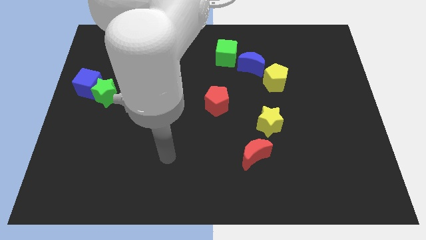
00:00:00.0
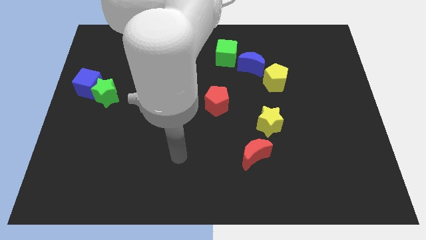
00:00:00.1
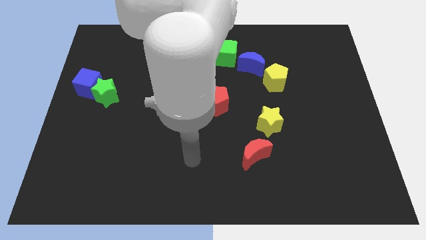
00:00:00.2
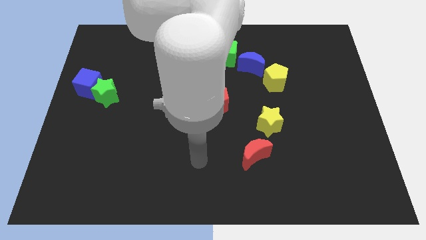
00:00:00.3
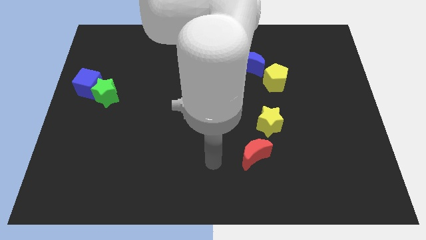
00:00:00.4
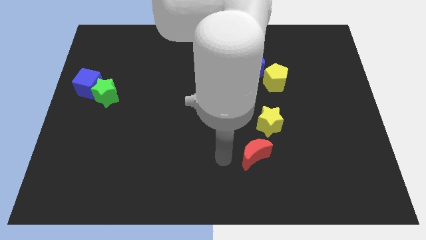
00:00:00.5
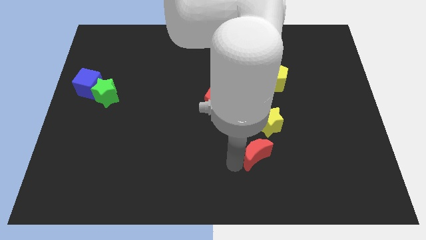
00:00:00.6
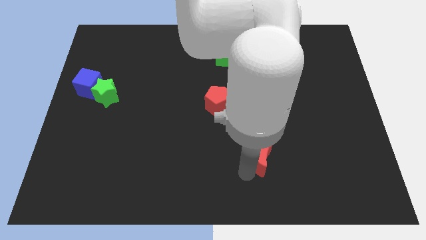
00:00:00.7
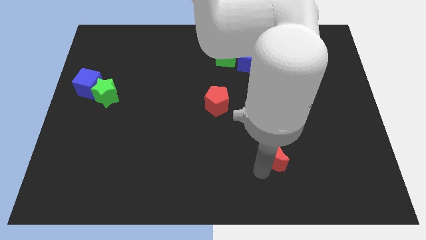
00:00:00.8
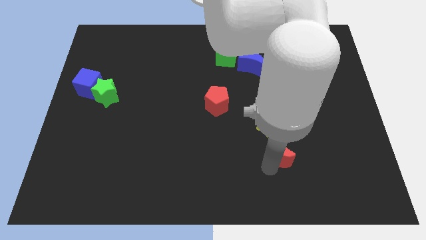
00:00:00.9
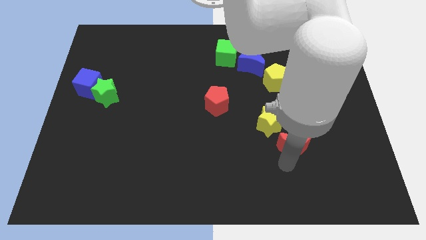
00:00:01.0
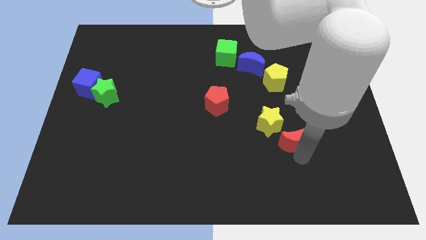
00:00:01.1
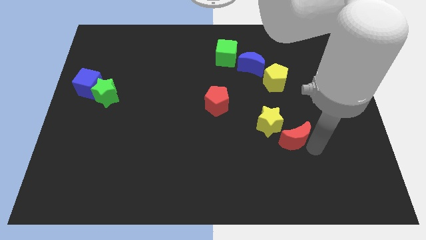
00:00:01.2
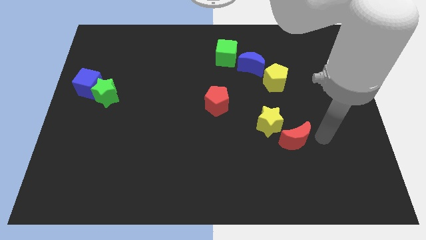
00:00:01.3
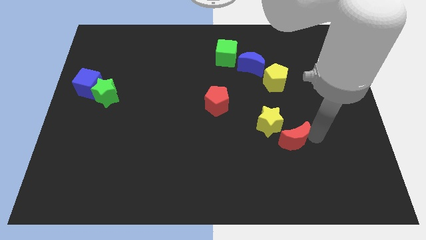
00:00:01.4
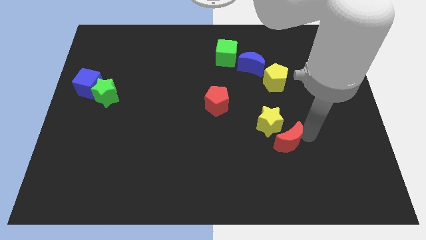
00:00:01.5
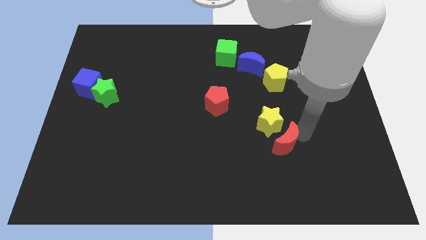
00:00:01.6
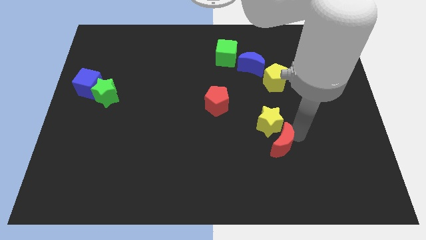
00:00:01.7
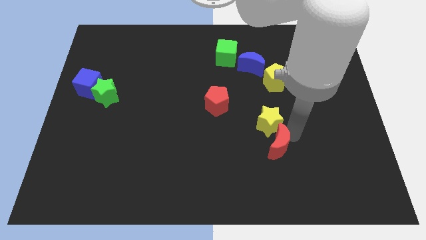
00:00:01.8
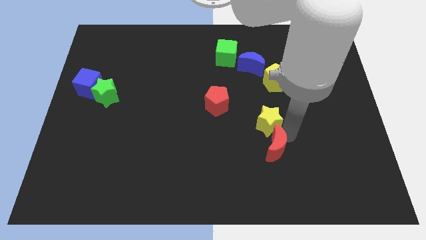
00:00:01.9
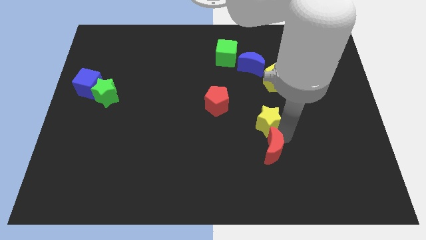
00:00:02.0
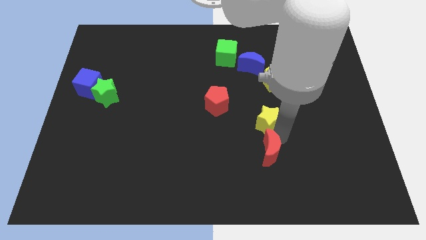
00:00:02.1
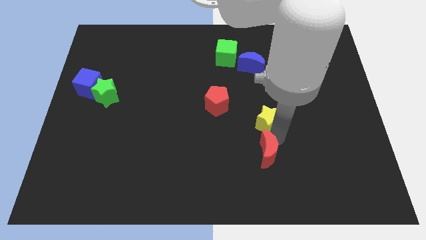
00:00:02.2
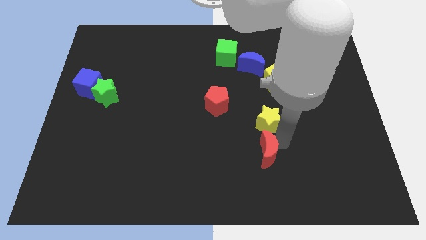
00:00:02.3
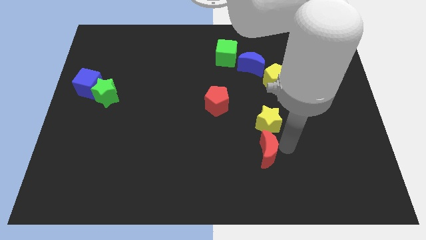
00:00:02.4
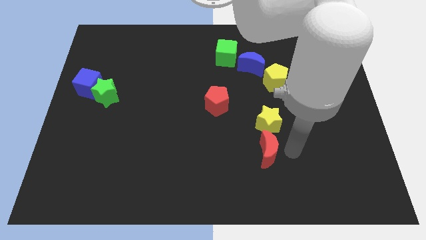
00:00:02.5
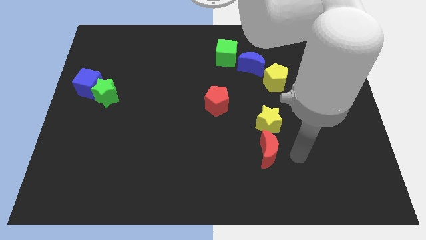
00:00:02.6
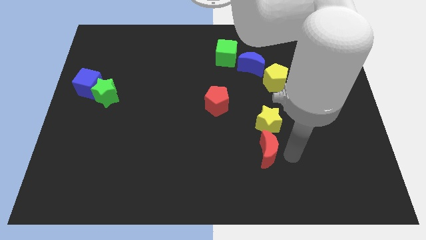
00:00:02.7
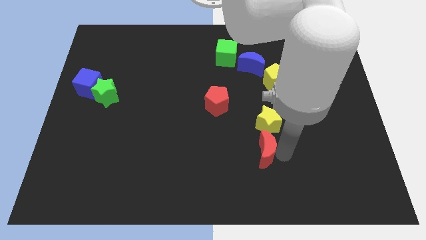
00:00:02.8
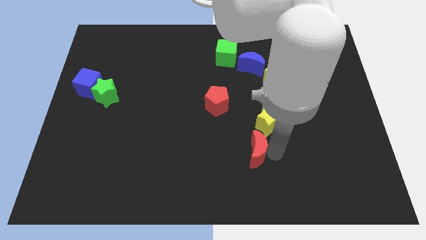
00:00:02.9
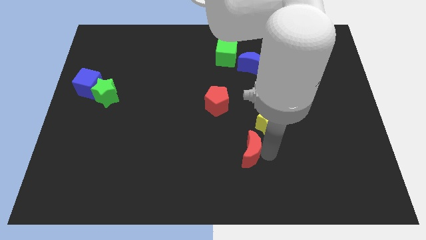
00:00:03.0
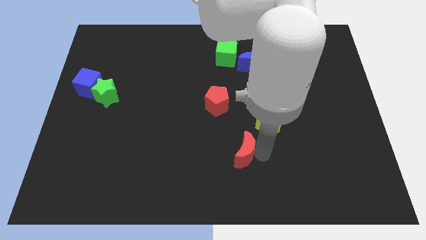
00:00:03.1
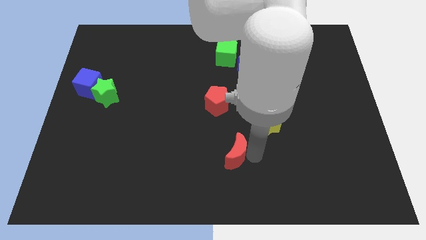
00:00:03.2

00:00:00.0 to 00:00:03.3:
put the red moon to the bottom of the red pentagon

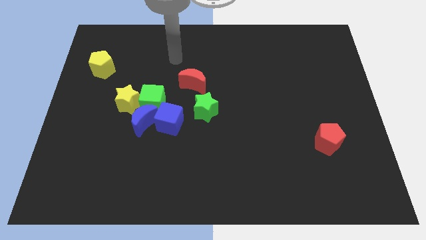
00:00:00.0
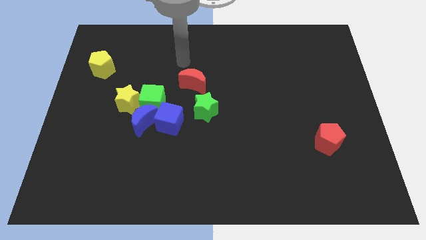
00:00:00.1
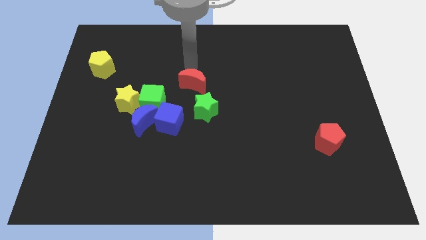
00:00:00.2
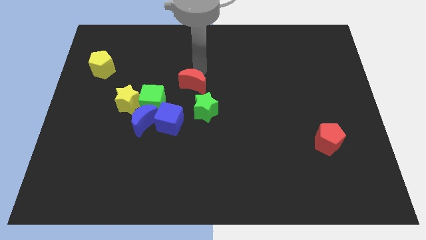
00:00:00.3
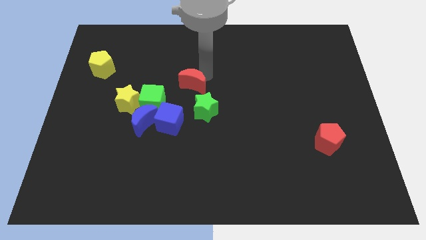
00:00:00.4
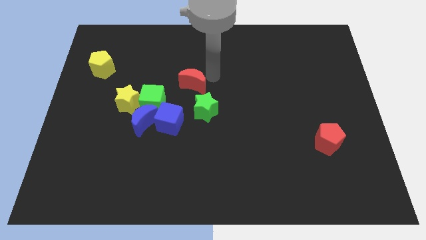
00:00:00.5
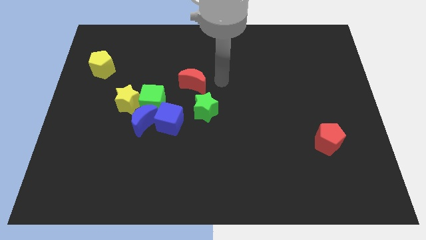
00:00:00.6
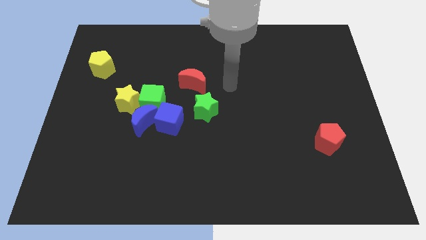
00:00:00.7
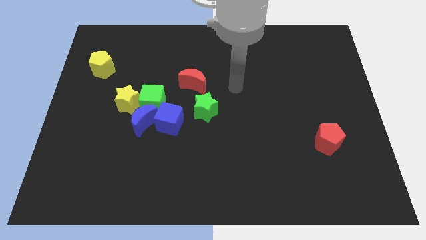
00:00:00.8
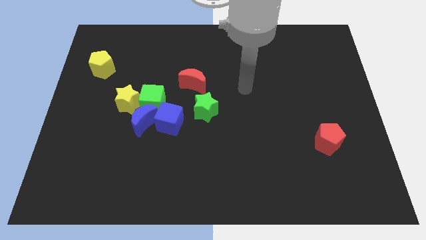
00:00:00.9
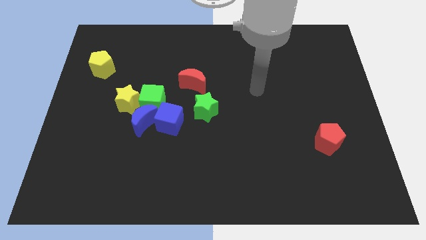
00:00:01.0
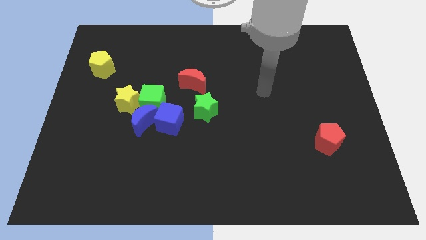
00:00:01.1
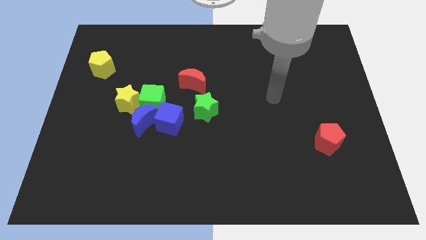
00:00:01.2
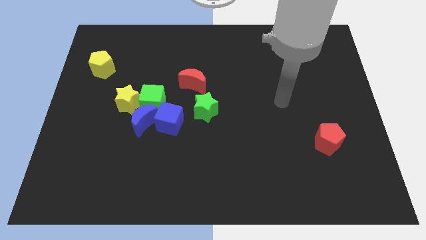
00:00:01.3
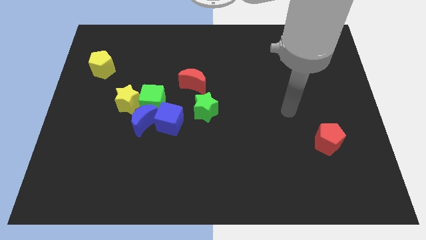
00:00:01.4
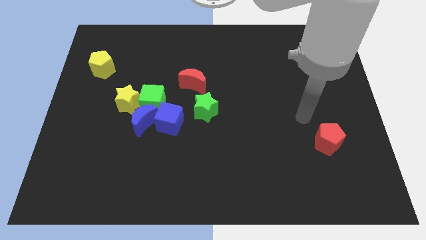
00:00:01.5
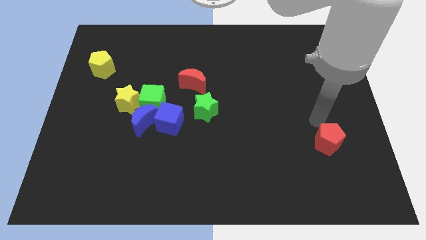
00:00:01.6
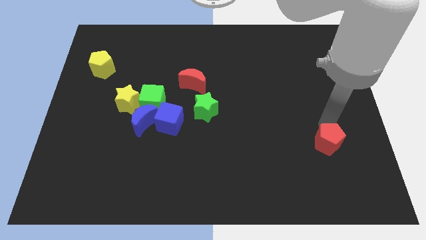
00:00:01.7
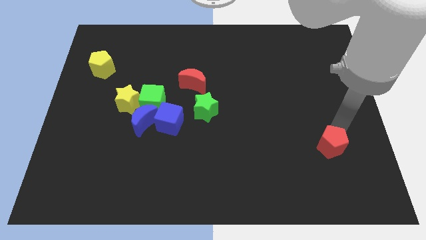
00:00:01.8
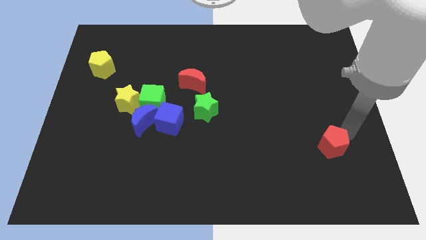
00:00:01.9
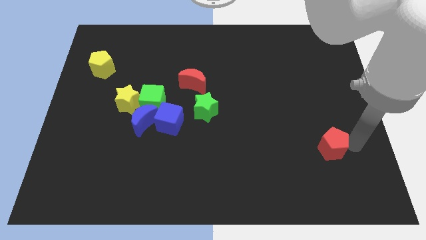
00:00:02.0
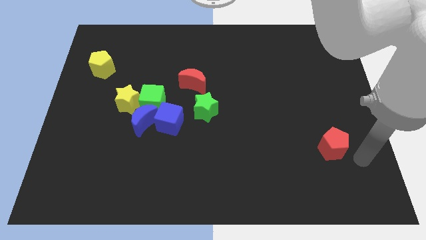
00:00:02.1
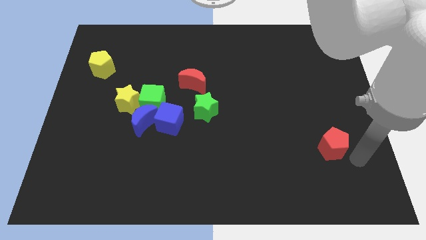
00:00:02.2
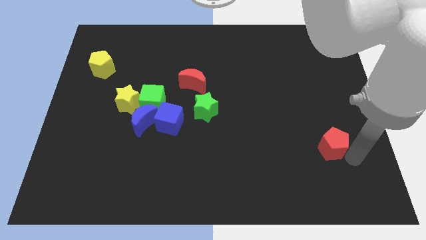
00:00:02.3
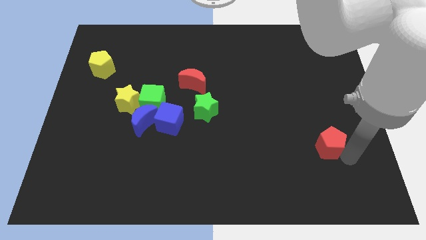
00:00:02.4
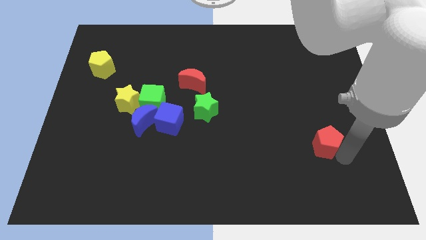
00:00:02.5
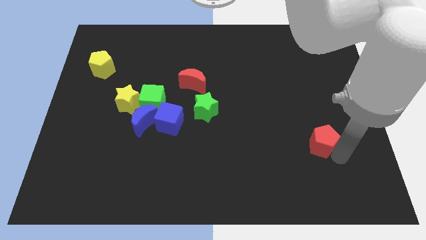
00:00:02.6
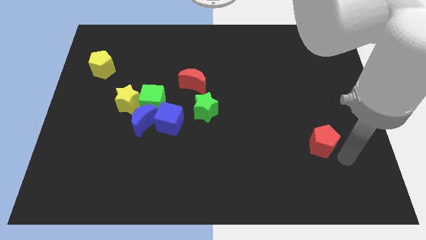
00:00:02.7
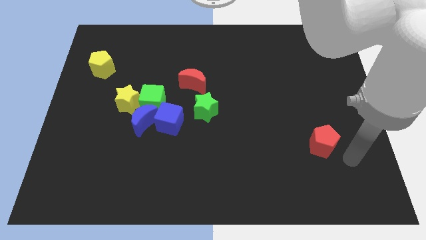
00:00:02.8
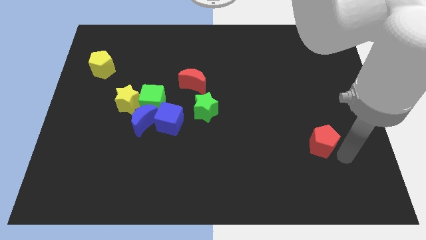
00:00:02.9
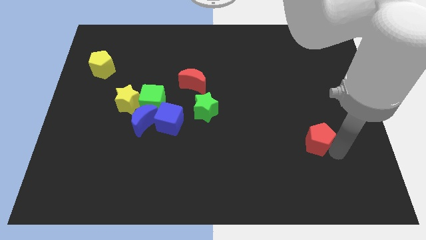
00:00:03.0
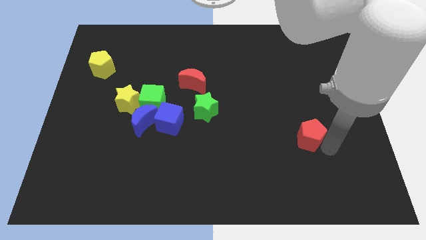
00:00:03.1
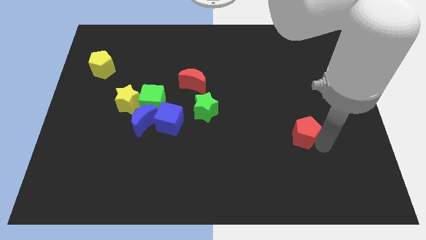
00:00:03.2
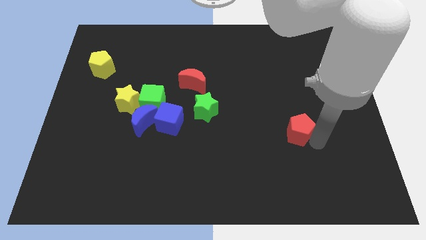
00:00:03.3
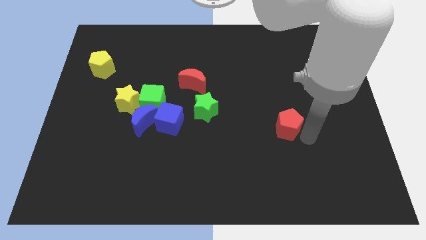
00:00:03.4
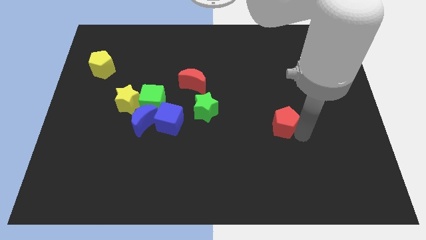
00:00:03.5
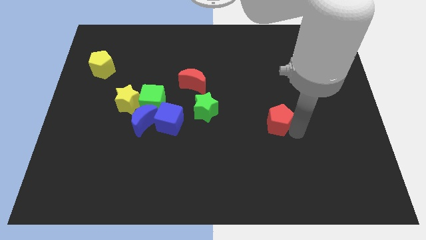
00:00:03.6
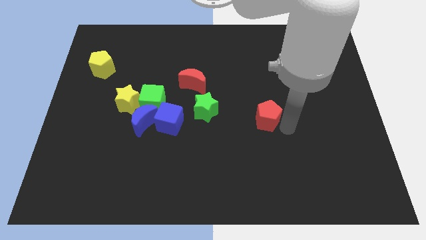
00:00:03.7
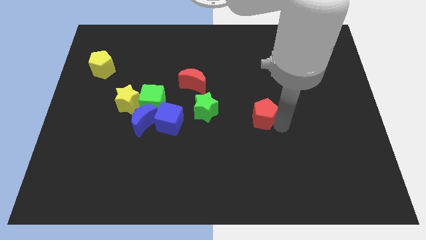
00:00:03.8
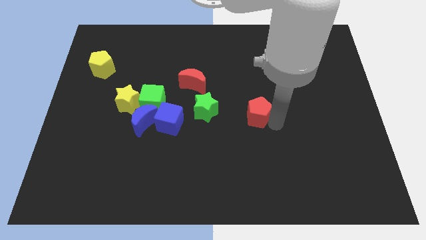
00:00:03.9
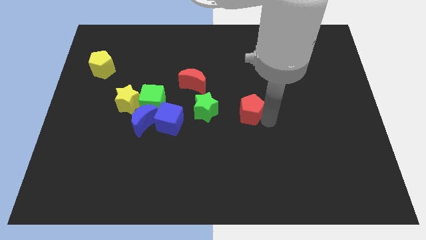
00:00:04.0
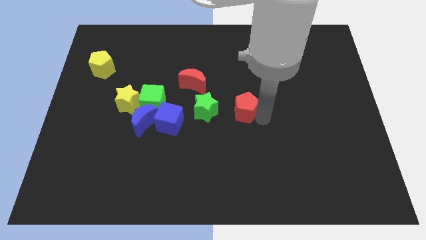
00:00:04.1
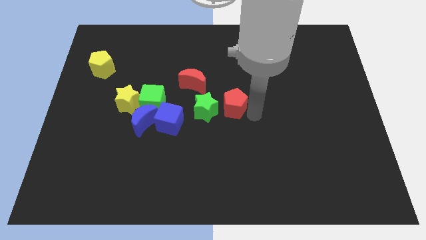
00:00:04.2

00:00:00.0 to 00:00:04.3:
push the red pentagon diagonally down and to the right of the red moon

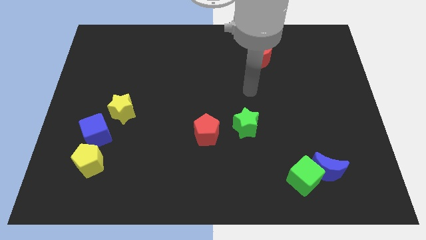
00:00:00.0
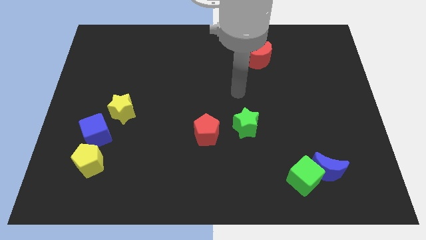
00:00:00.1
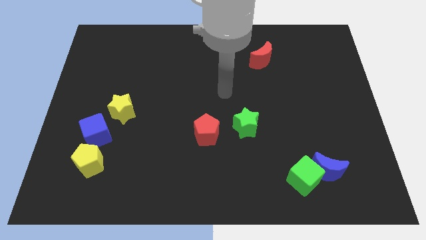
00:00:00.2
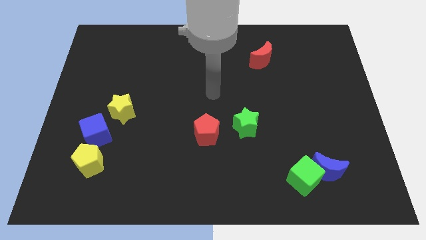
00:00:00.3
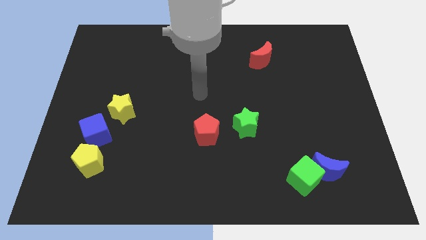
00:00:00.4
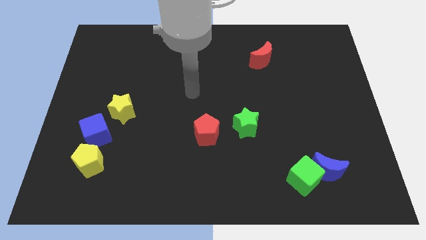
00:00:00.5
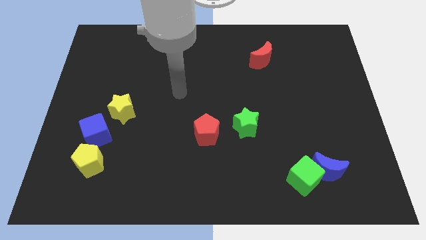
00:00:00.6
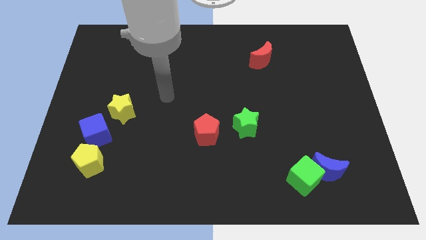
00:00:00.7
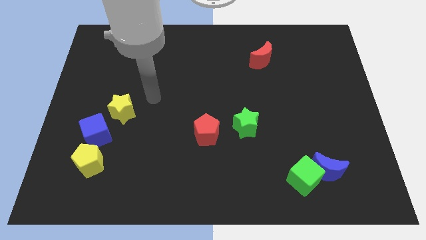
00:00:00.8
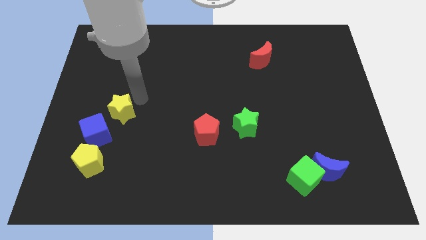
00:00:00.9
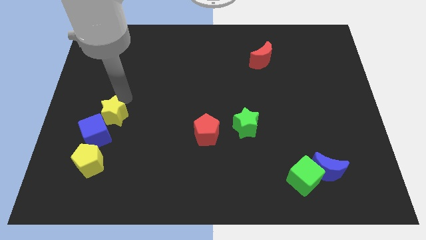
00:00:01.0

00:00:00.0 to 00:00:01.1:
push the blue cube diagonally up and to the right of the yellow pentagon
